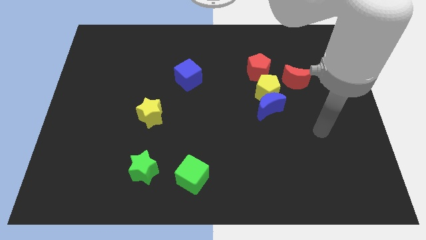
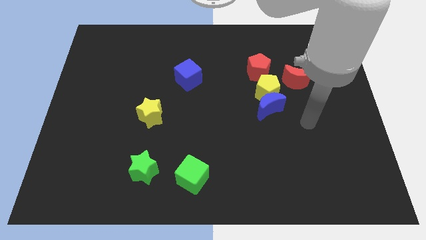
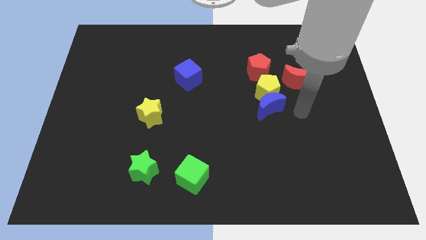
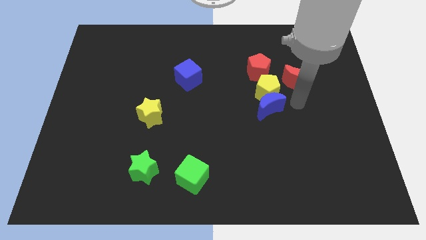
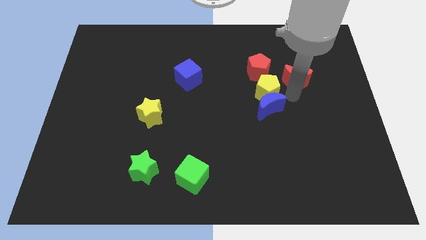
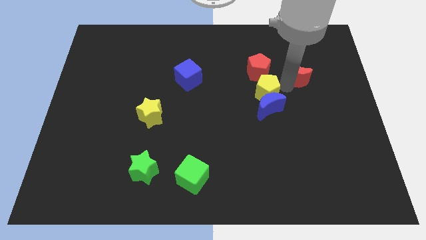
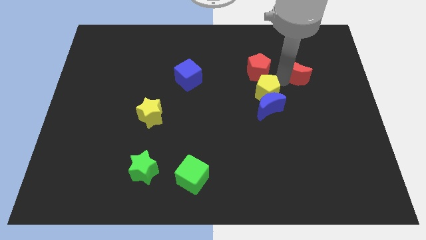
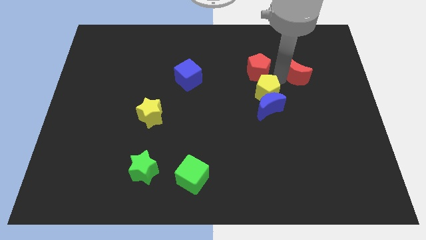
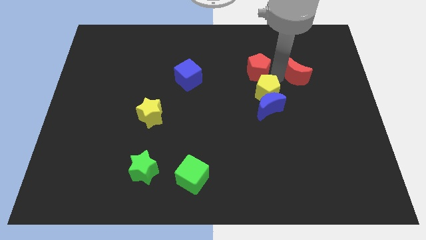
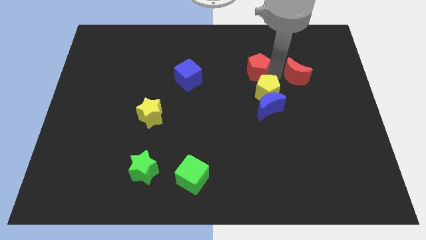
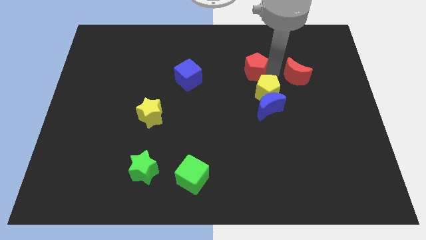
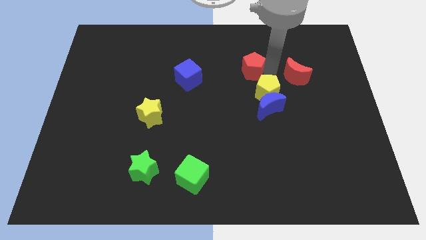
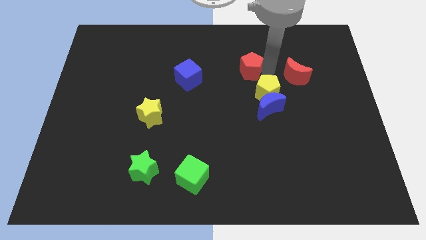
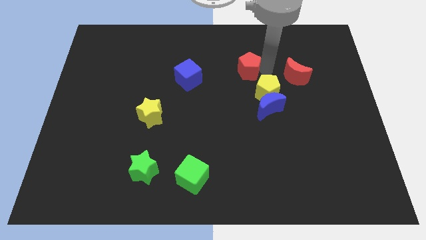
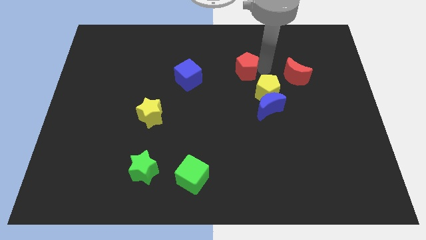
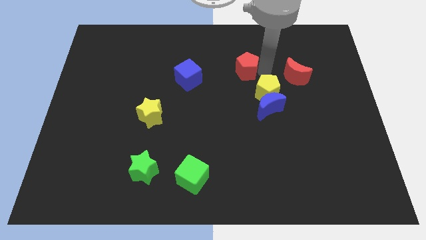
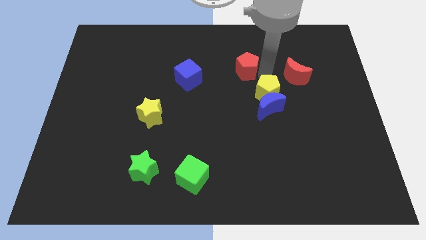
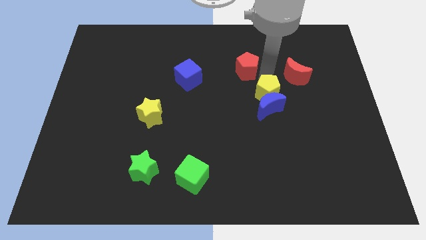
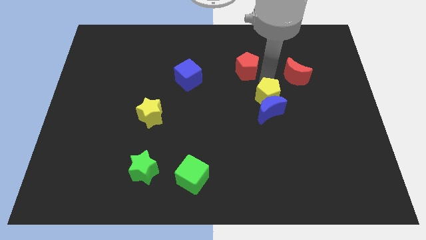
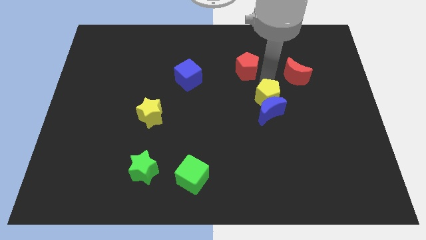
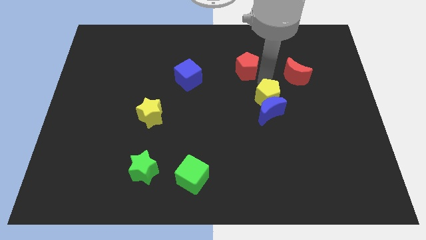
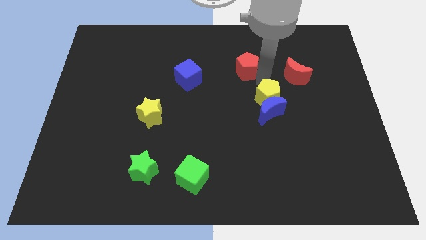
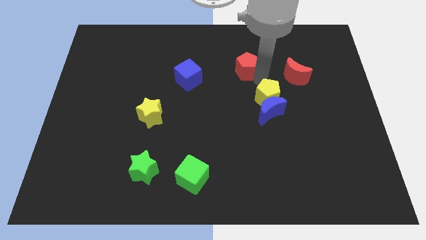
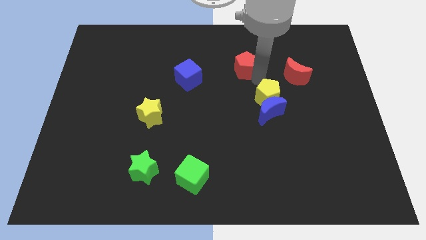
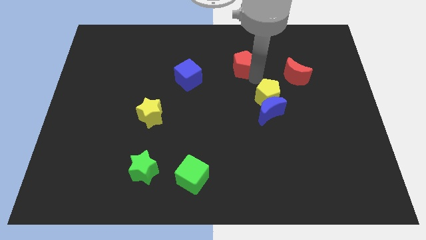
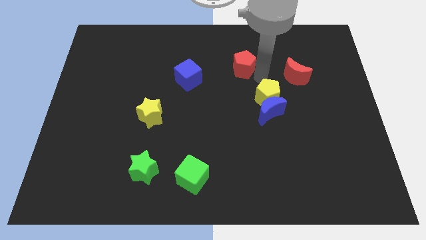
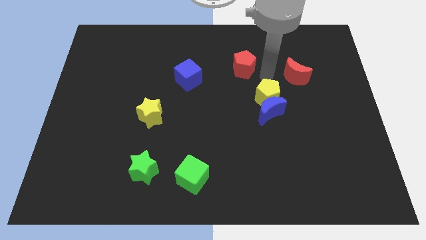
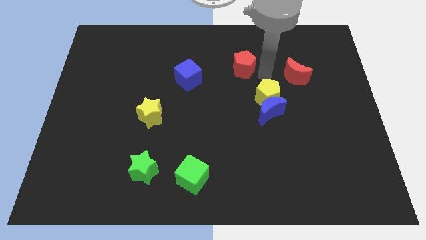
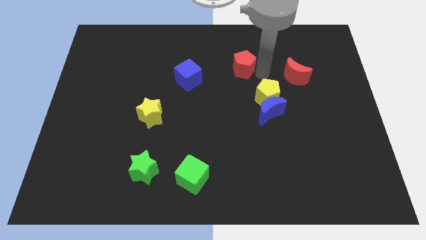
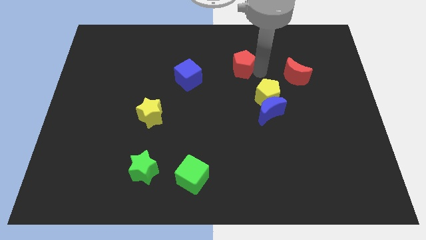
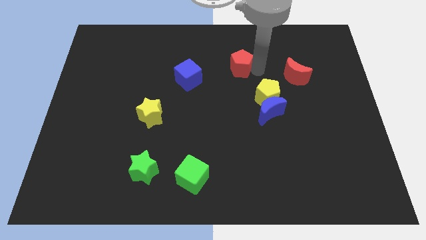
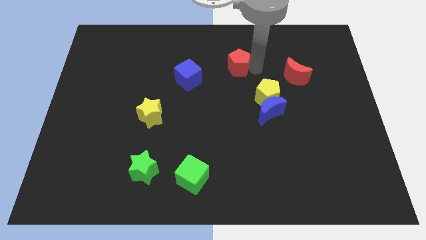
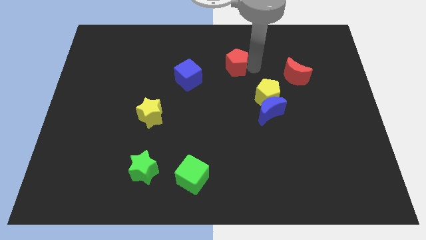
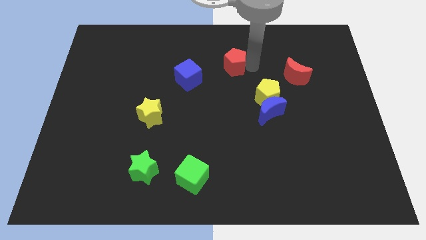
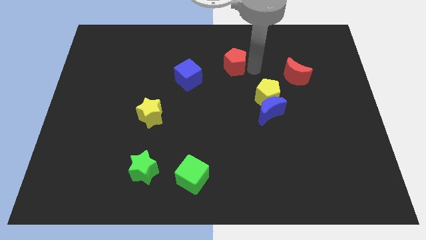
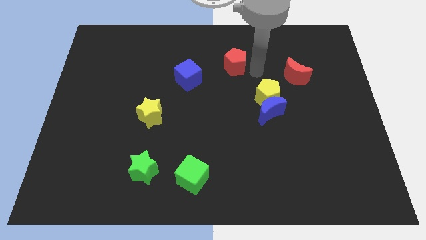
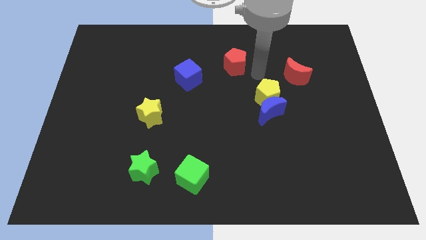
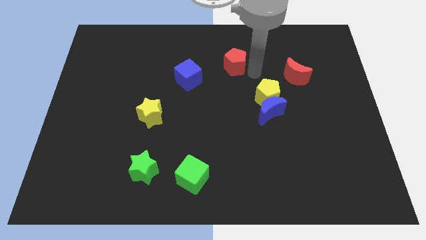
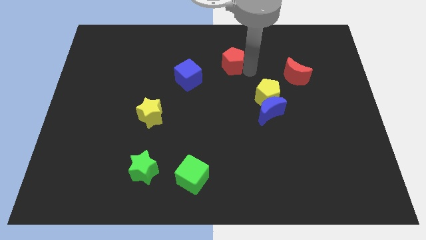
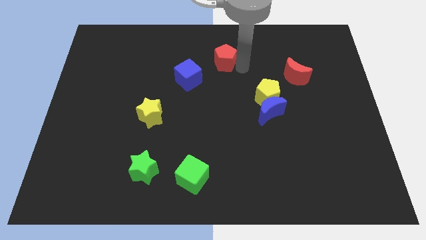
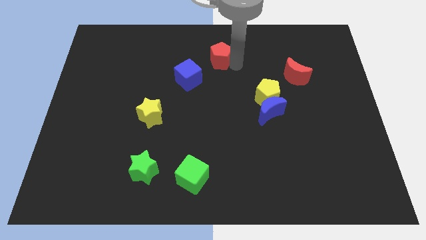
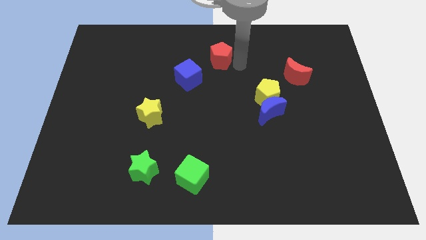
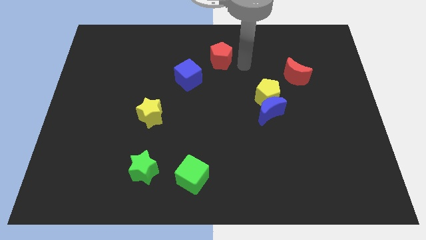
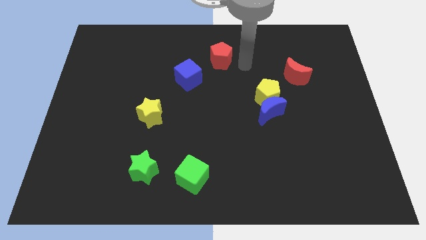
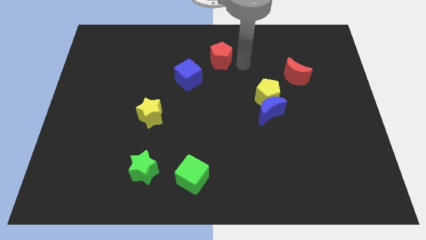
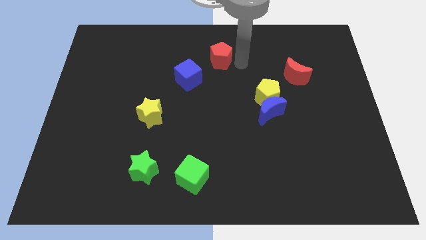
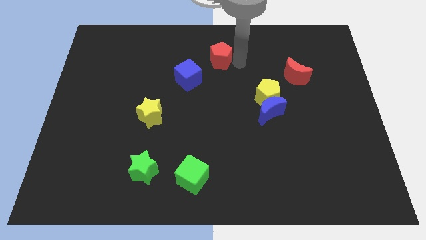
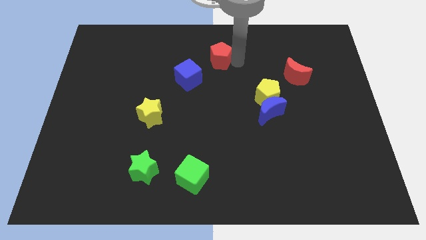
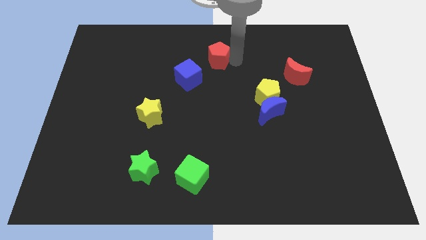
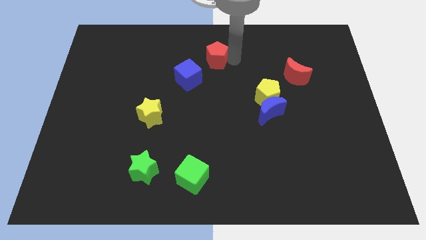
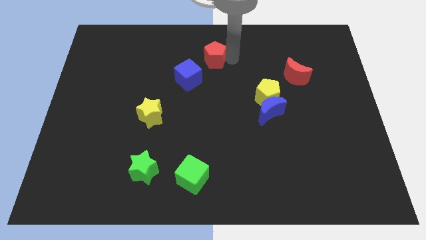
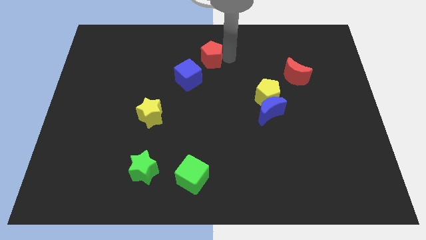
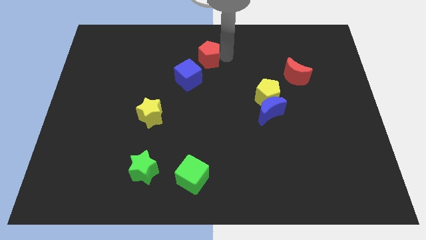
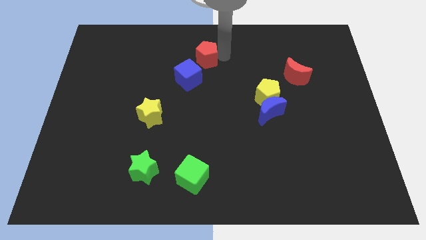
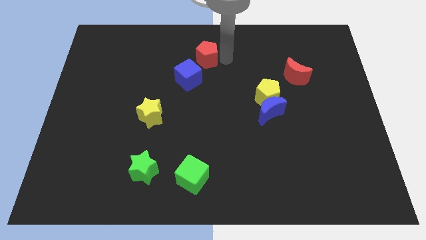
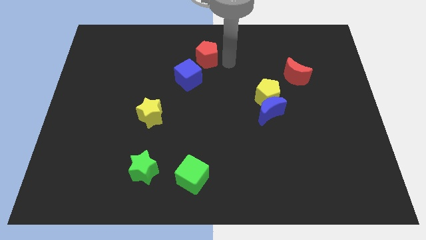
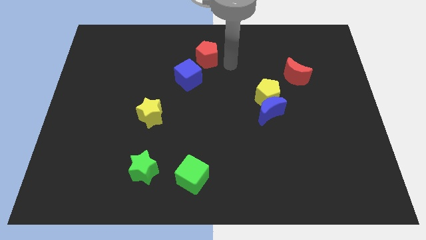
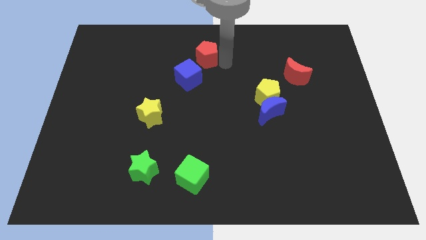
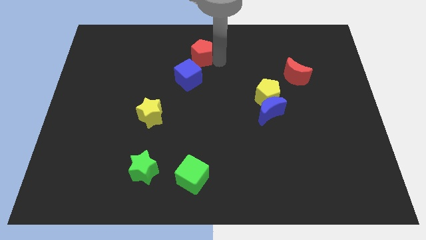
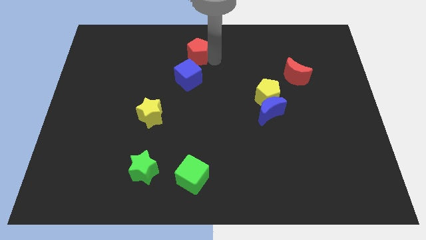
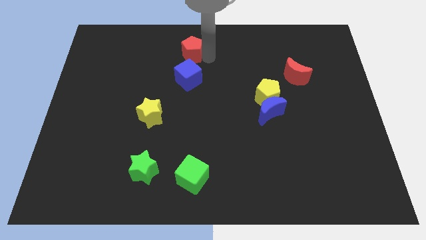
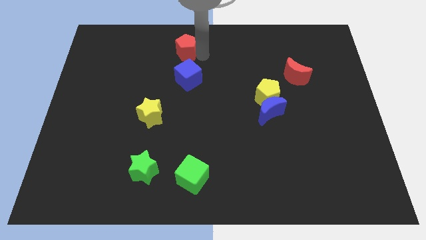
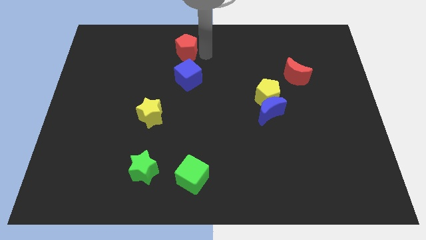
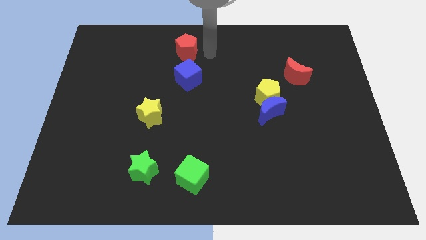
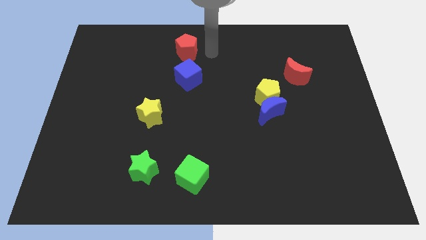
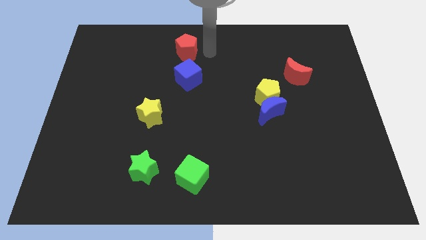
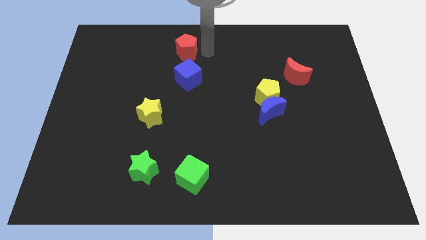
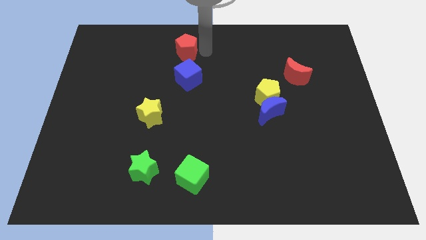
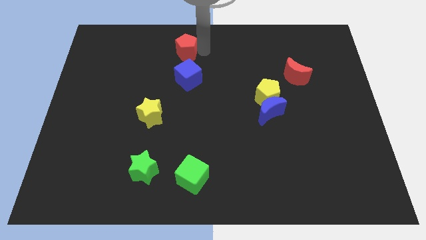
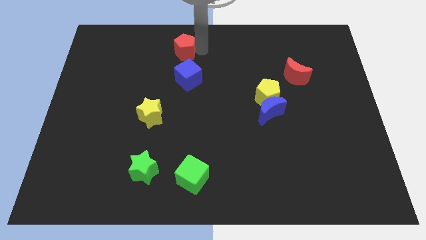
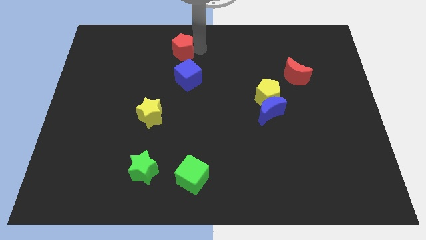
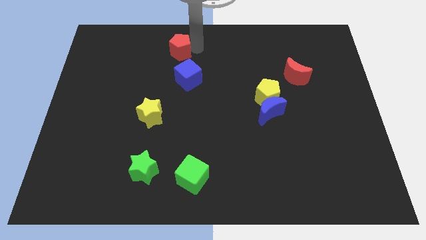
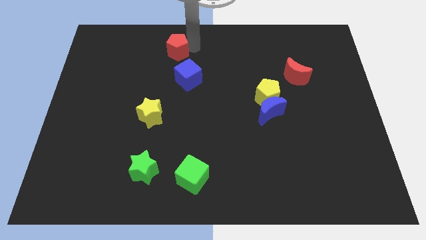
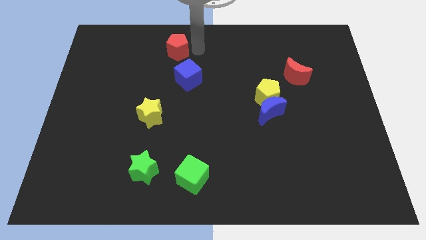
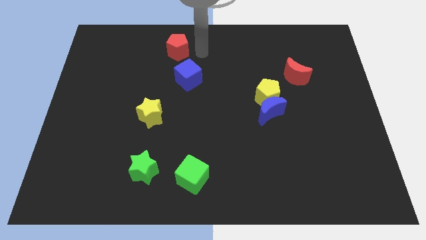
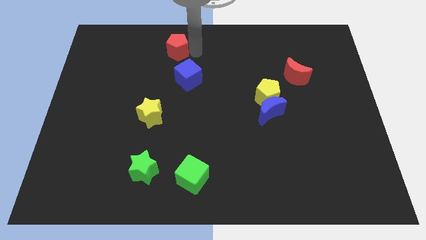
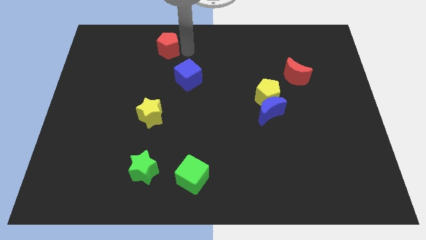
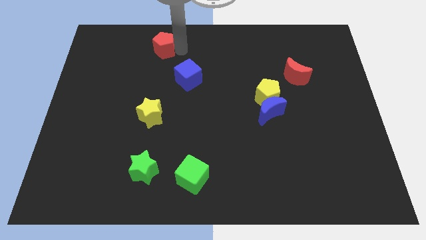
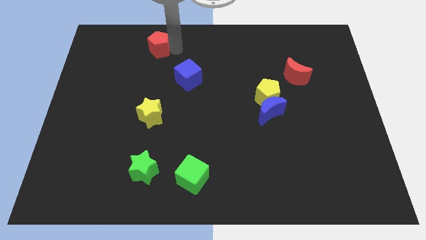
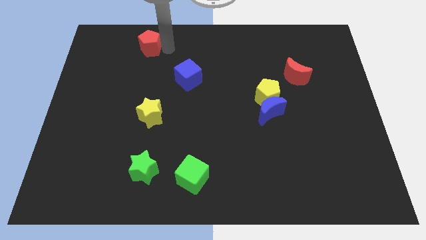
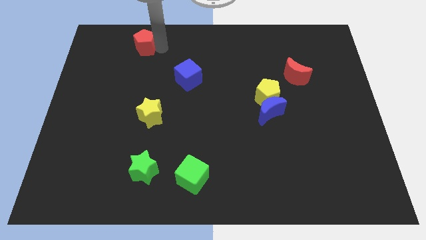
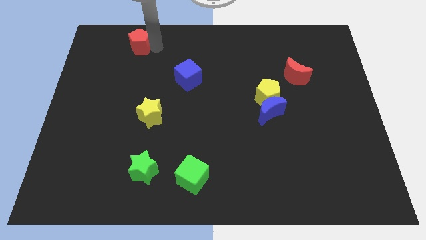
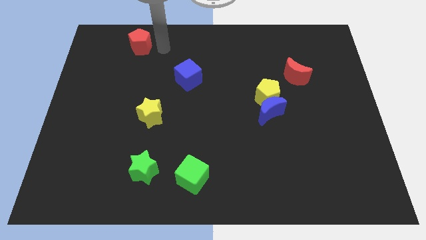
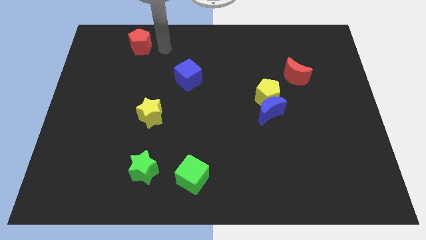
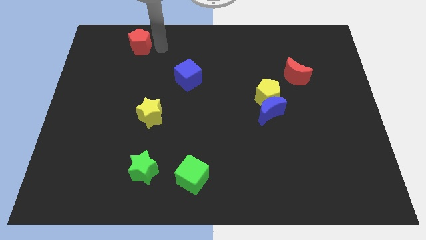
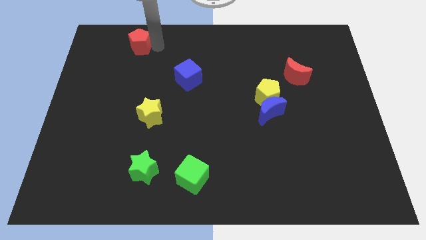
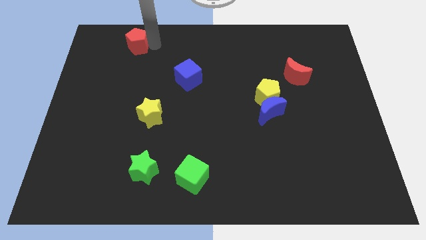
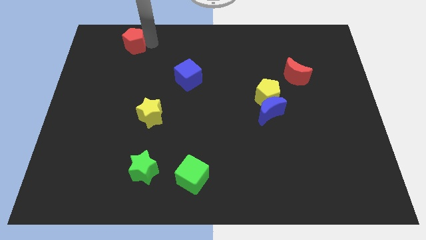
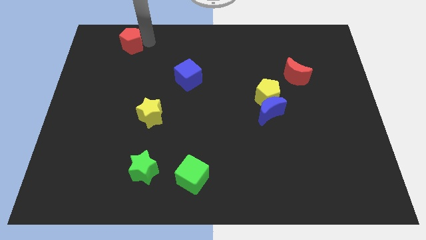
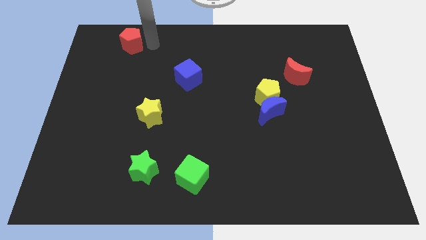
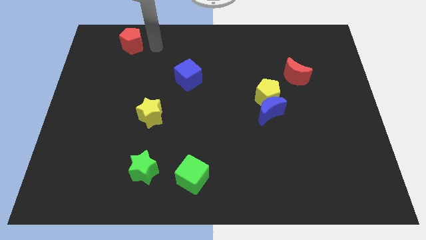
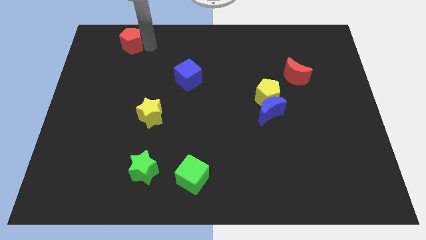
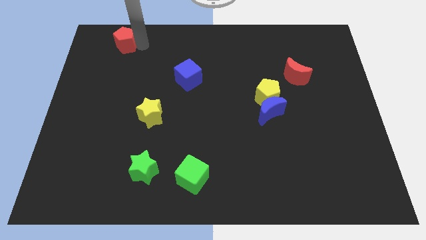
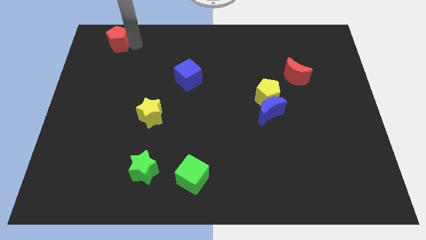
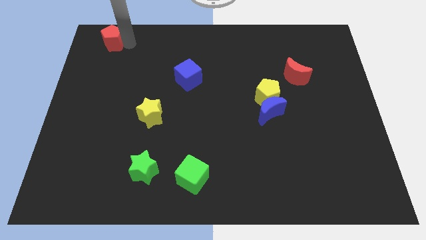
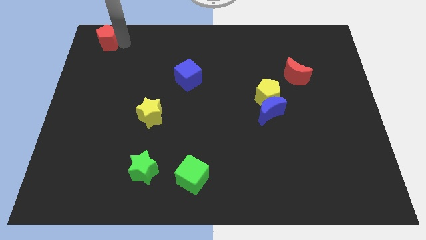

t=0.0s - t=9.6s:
push the red pentagon to the top left corner
